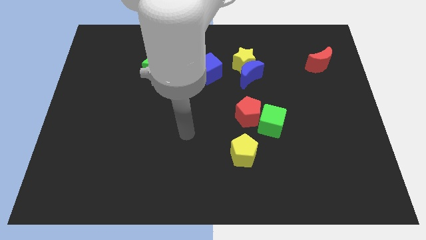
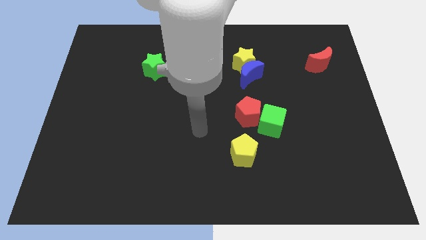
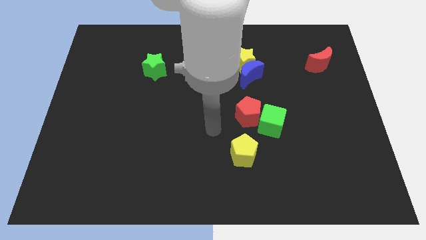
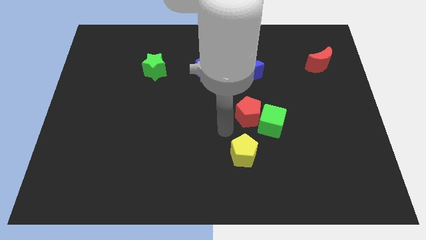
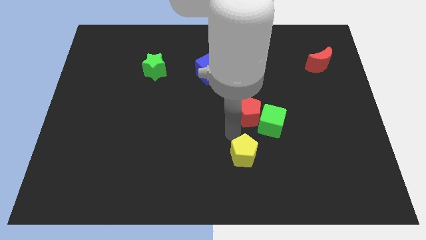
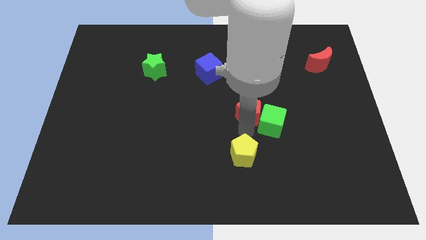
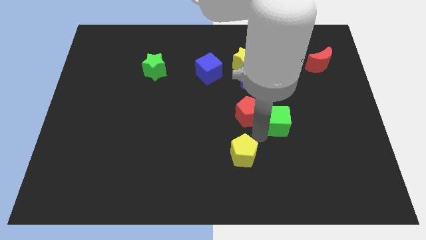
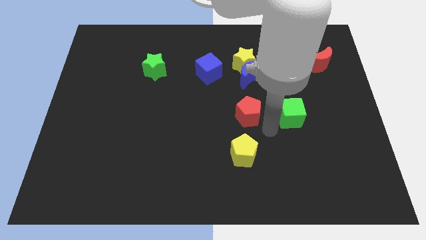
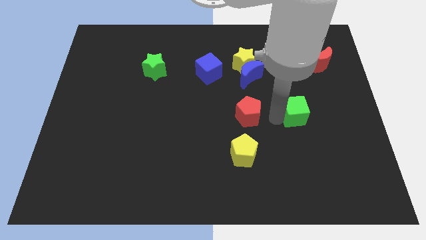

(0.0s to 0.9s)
pull the red pentagon apart from the green cube

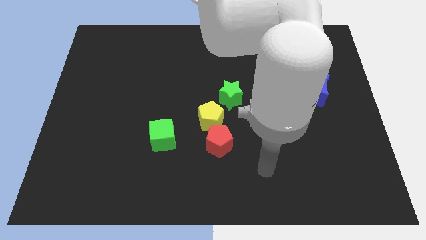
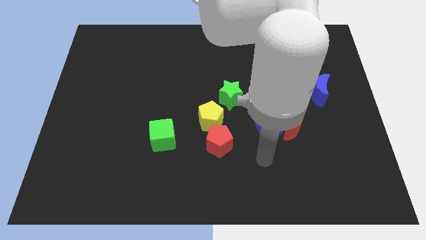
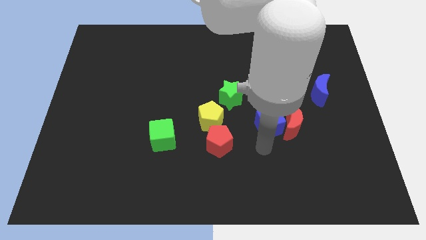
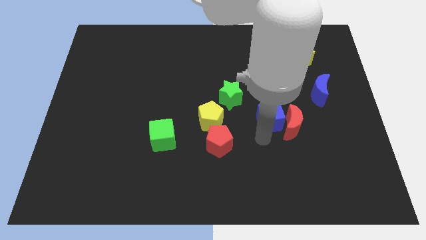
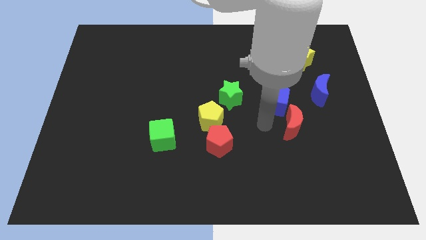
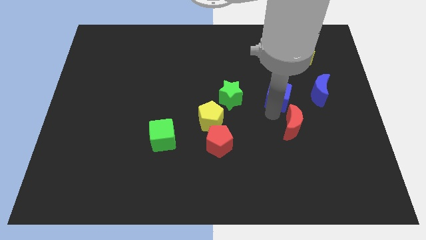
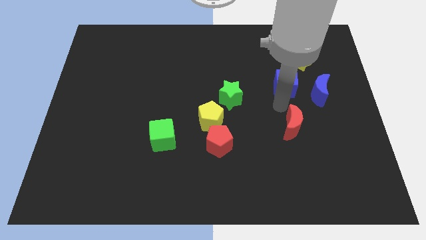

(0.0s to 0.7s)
move the red moon away from the blue cube

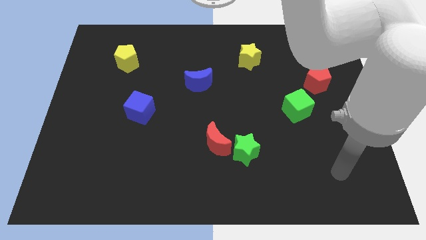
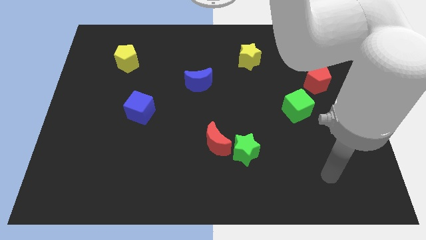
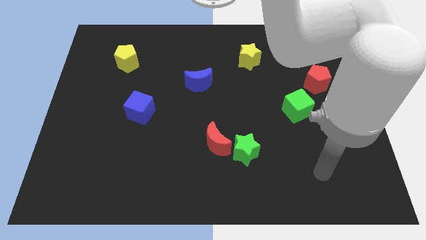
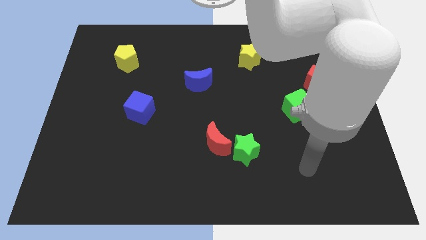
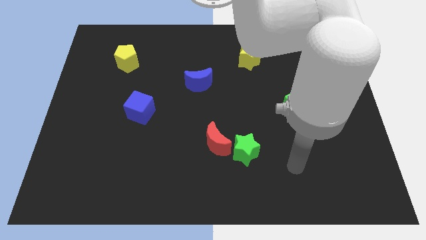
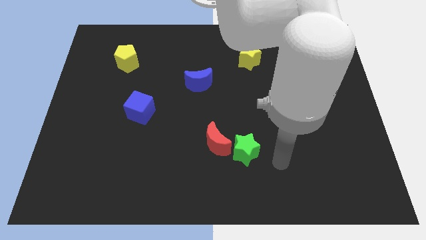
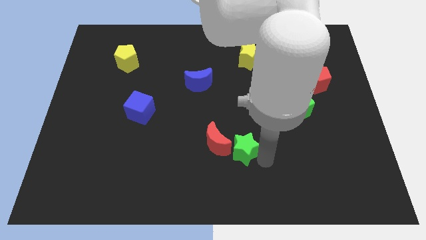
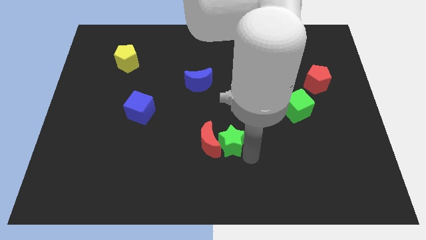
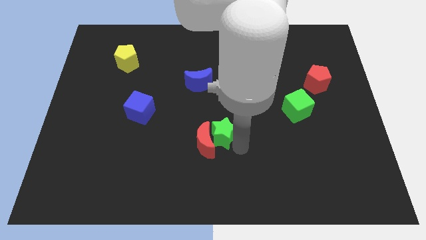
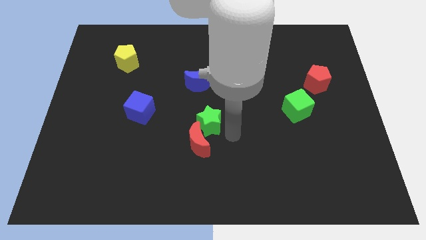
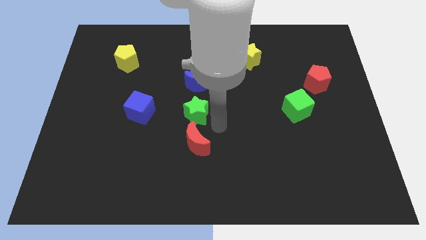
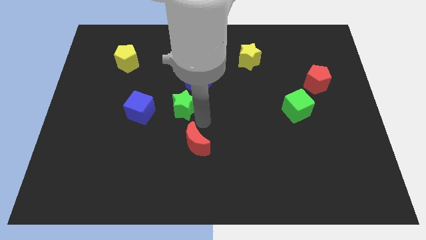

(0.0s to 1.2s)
separate the red moon from the green star

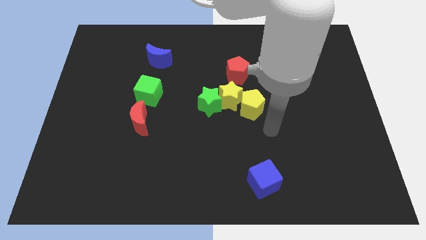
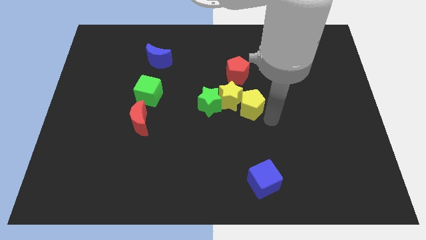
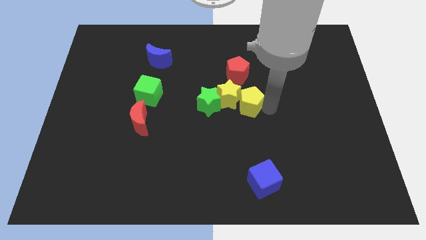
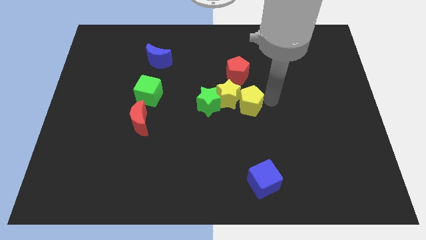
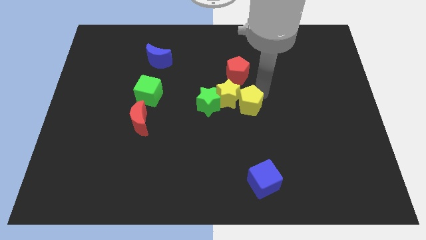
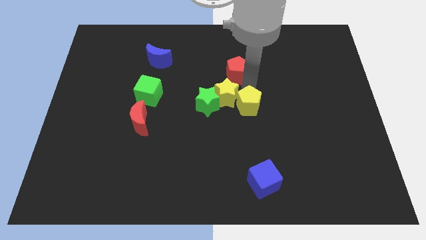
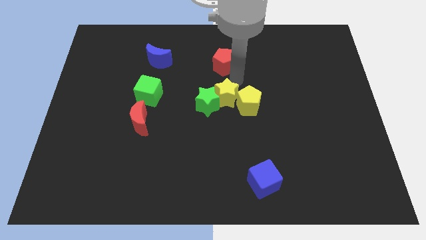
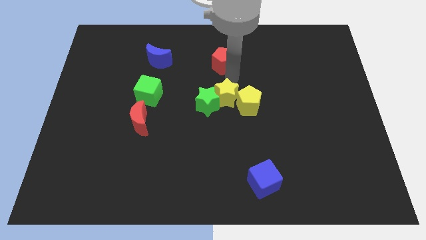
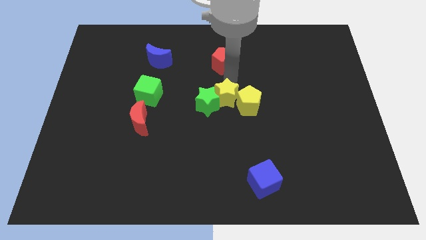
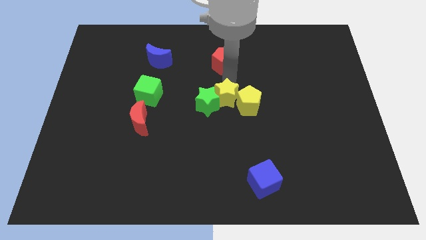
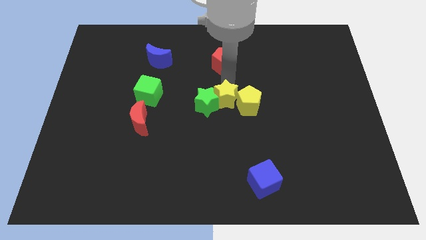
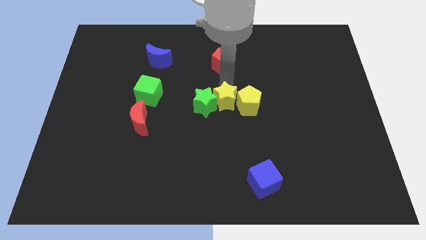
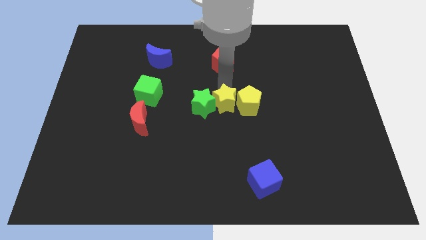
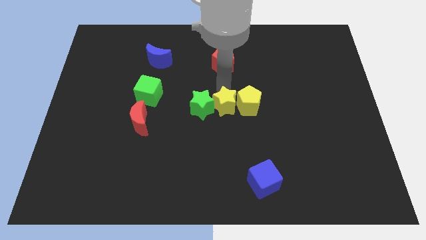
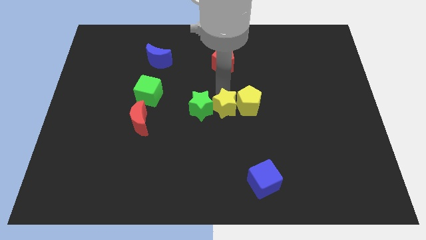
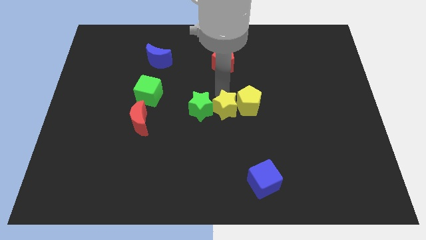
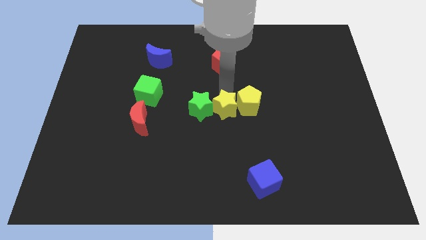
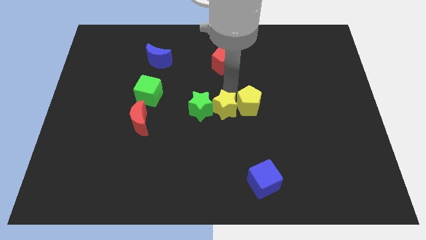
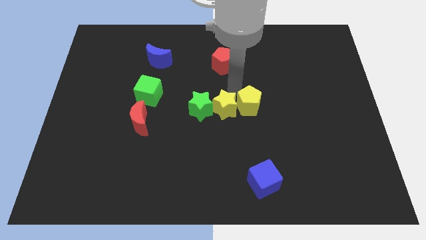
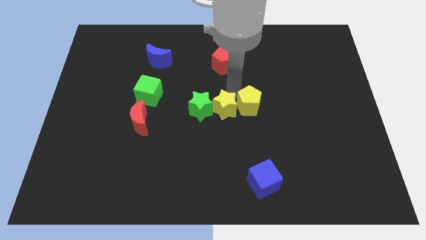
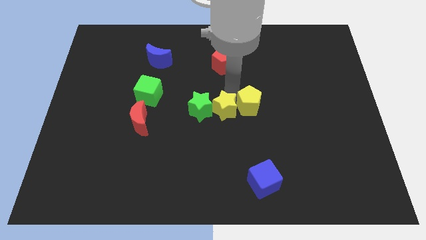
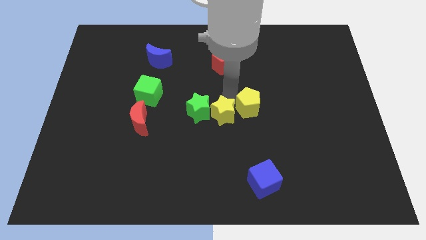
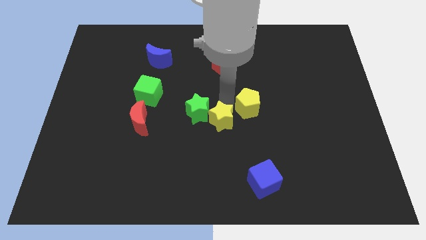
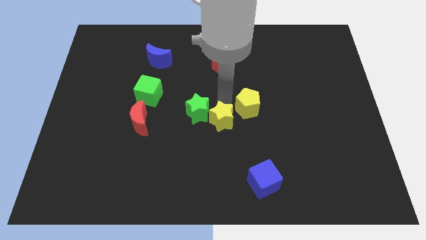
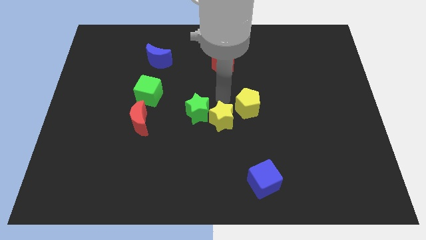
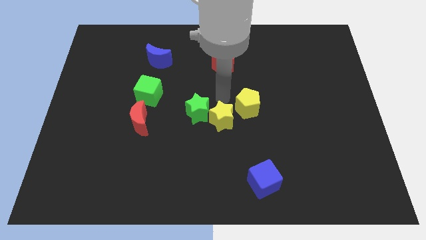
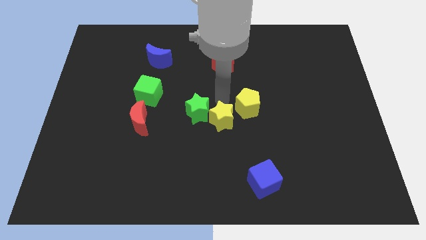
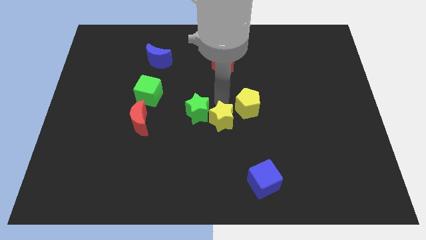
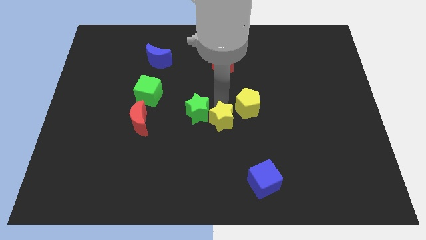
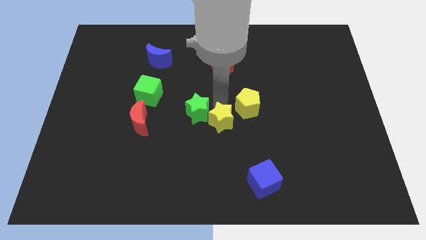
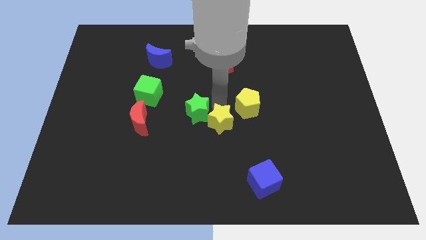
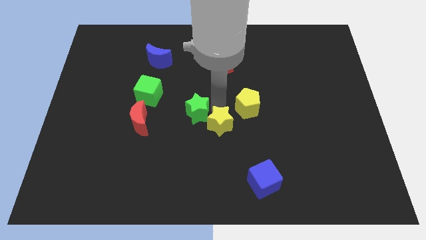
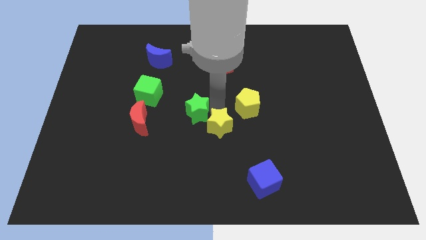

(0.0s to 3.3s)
move the yellow star away from the clump

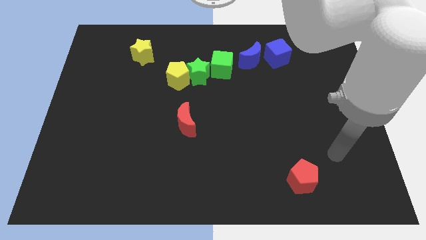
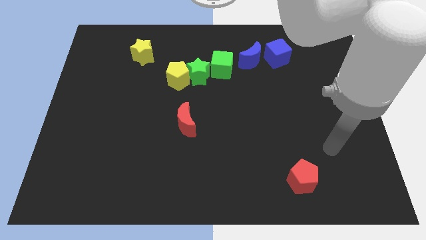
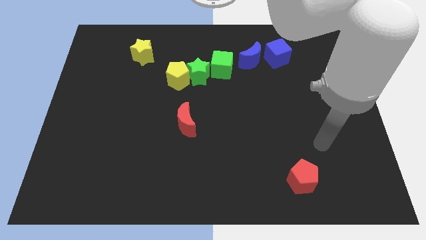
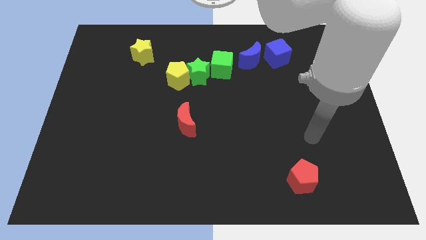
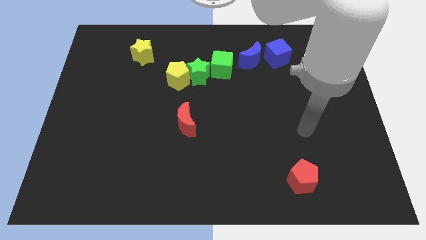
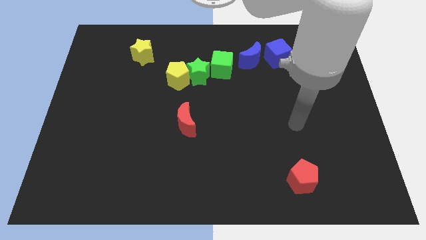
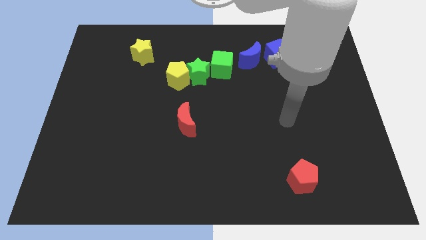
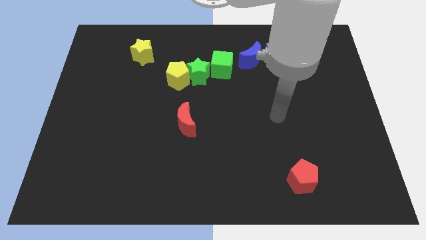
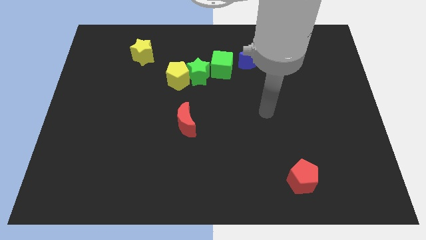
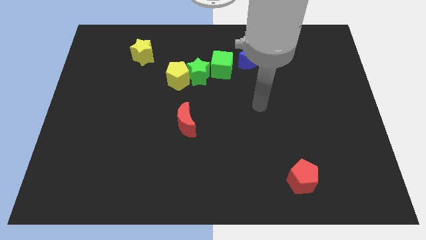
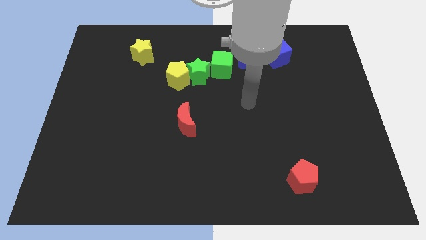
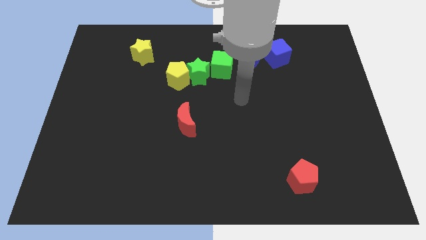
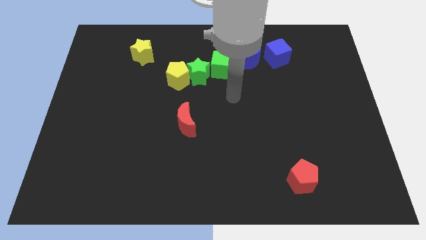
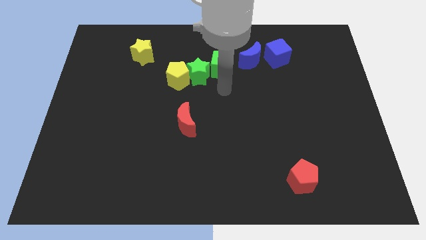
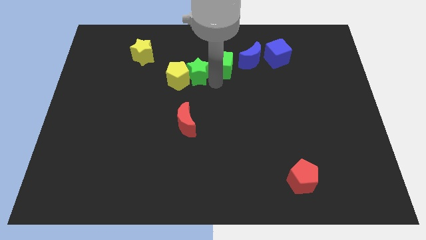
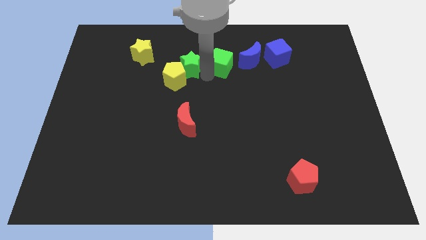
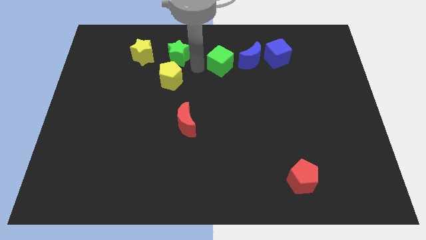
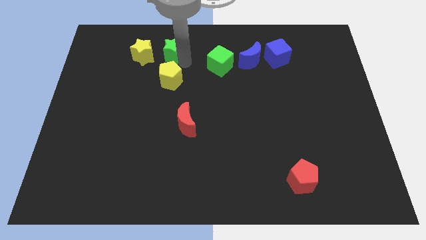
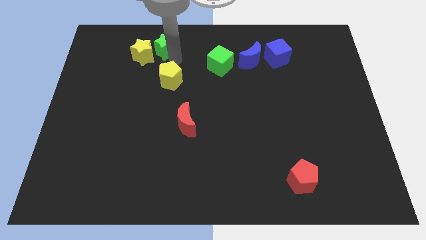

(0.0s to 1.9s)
separate the yellow pentagon from the green star

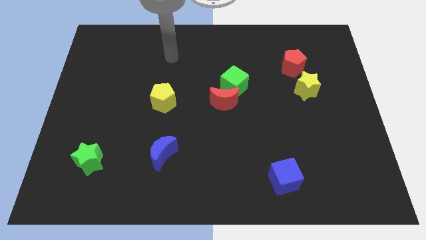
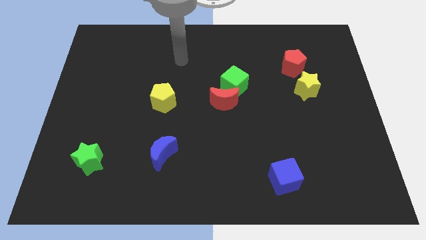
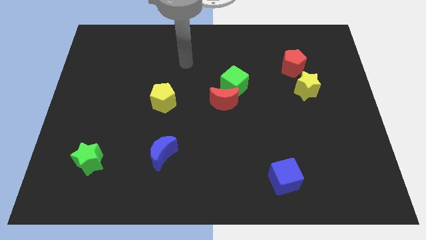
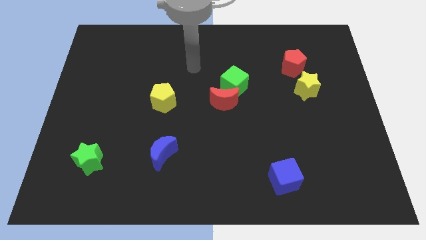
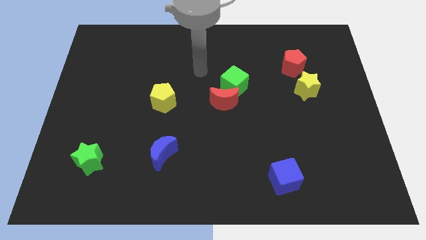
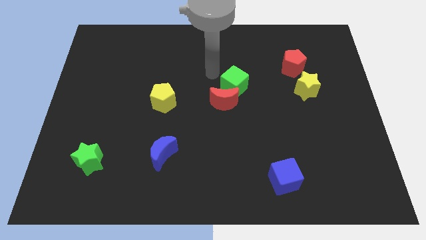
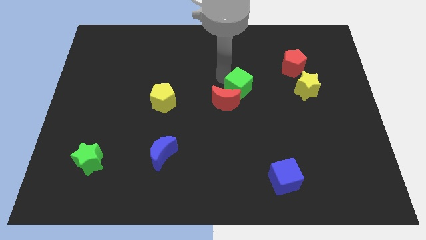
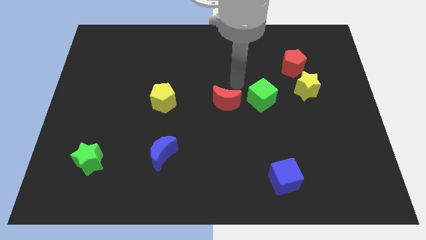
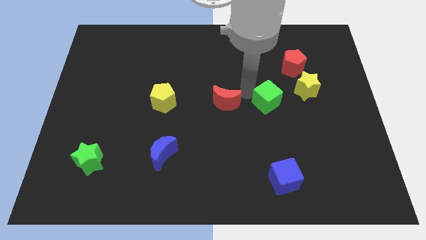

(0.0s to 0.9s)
move the red moon away from the green cube

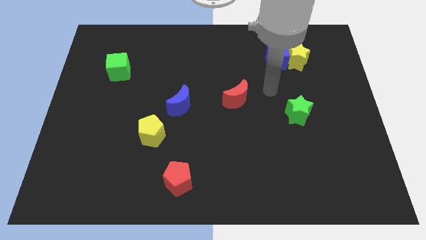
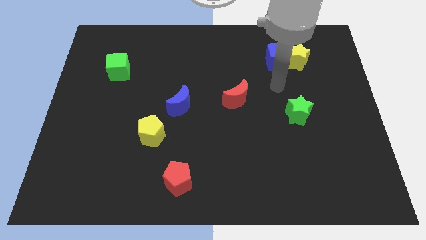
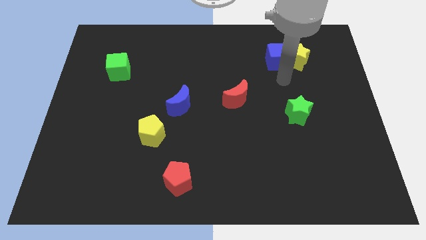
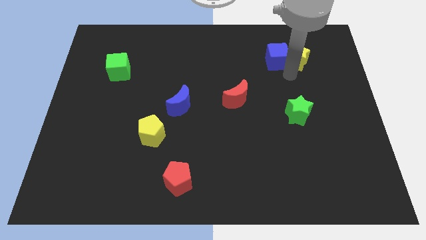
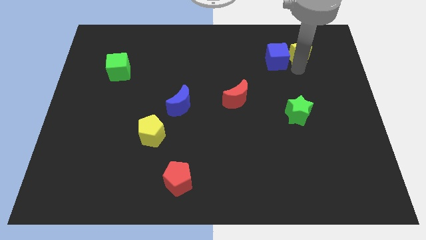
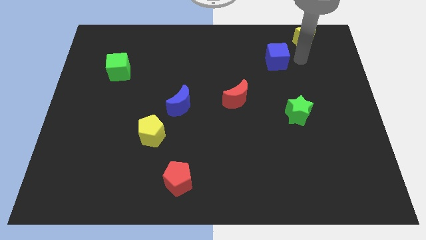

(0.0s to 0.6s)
separate the blue cube from the yellow star
